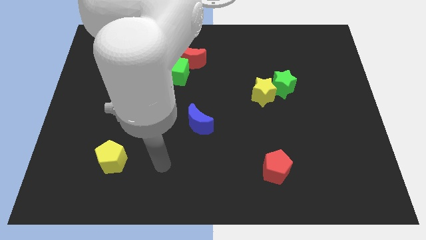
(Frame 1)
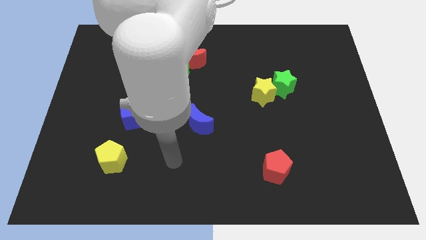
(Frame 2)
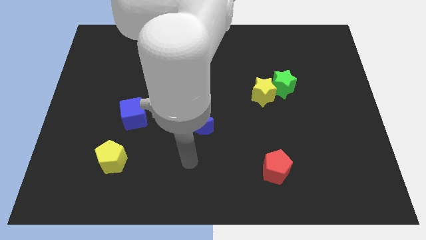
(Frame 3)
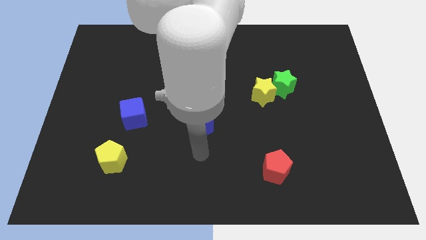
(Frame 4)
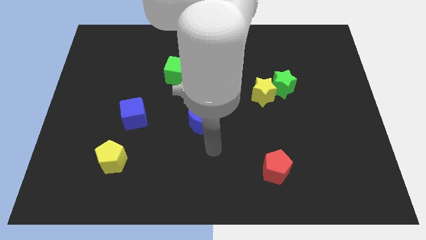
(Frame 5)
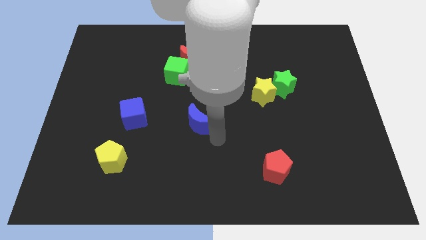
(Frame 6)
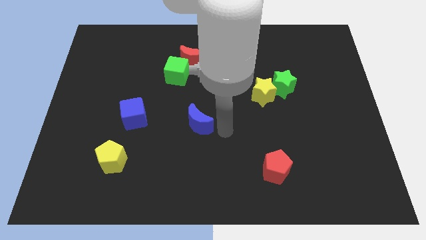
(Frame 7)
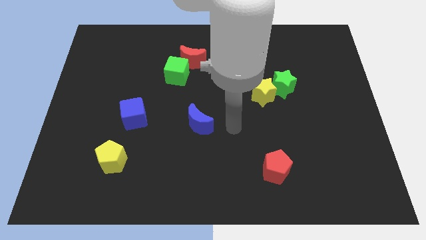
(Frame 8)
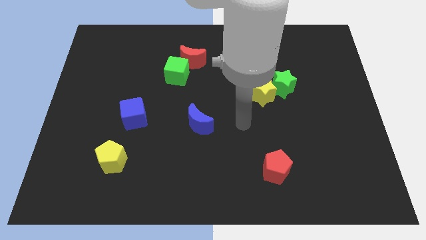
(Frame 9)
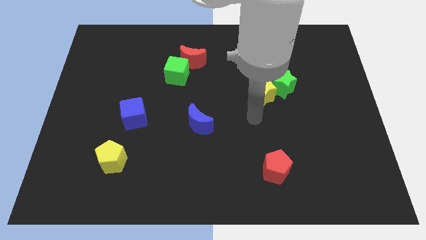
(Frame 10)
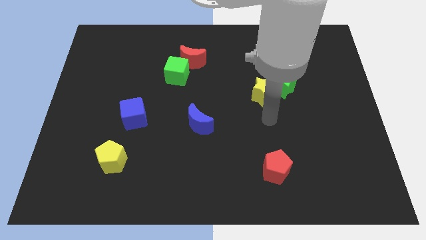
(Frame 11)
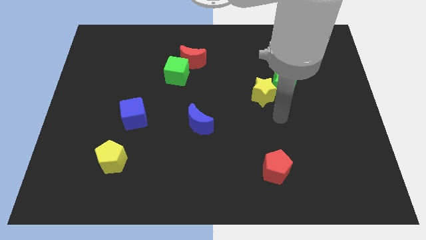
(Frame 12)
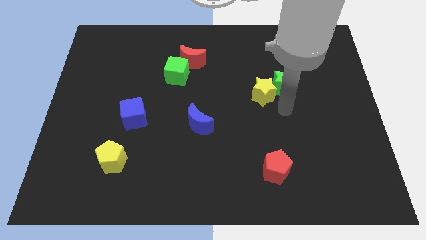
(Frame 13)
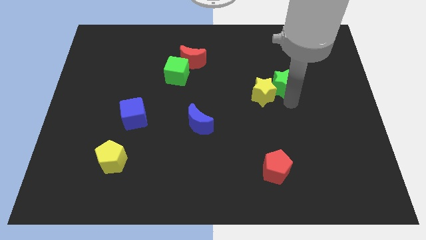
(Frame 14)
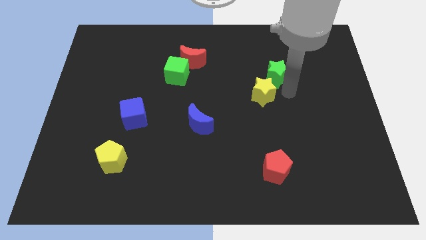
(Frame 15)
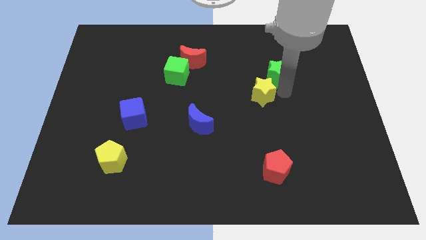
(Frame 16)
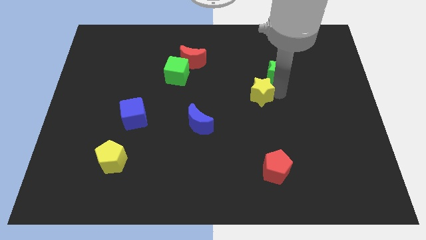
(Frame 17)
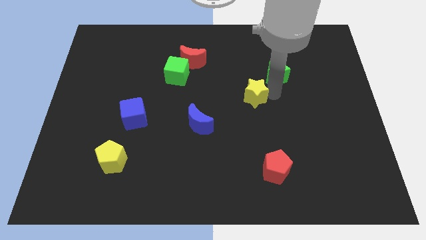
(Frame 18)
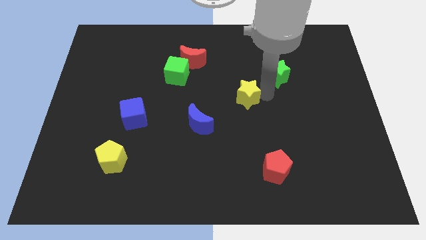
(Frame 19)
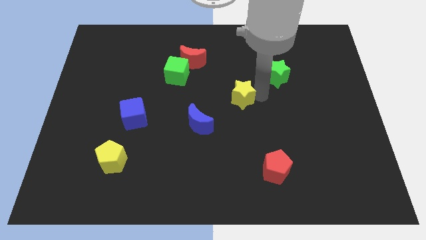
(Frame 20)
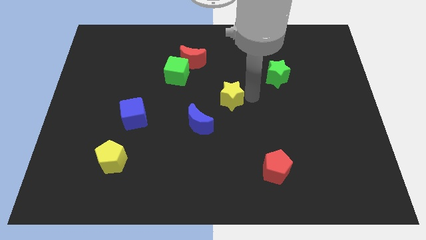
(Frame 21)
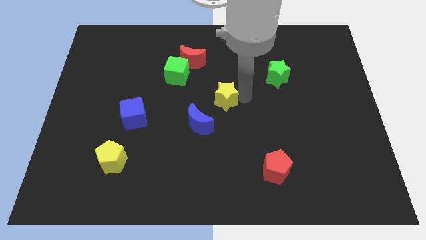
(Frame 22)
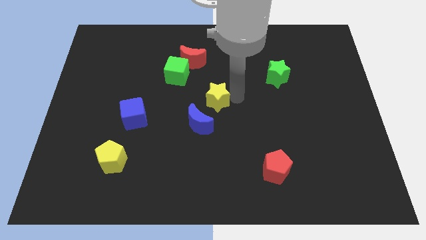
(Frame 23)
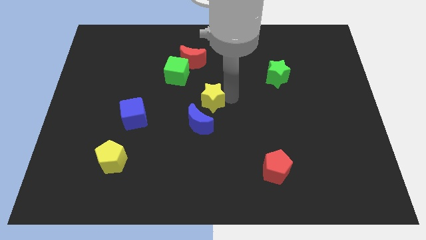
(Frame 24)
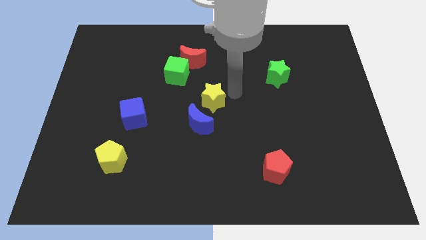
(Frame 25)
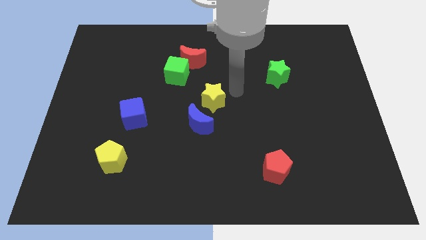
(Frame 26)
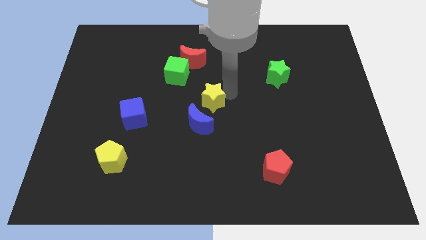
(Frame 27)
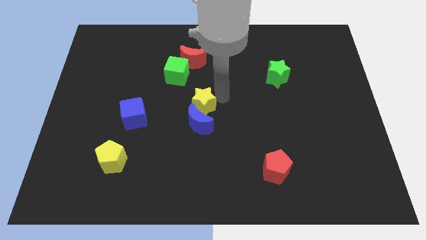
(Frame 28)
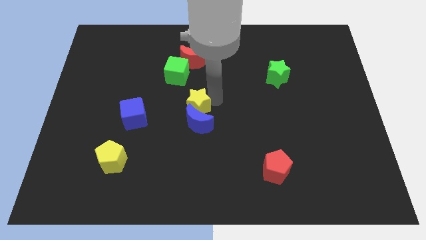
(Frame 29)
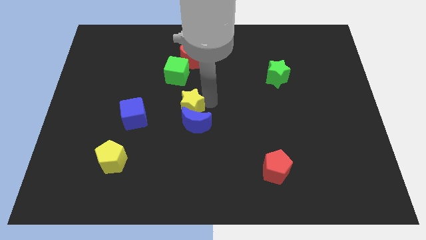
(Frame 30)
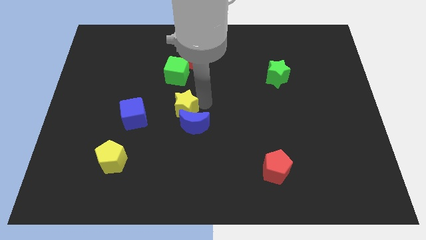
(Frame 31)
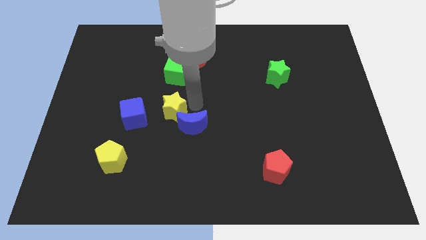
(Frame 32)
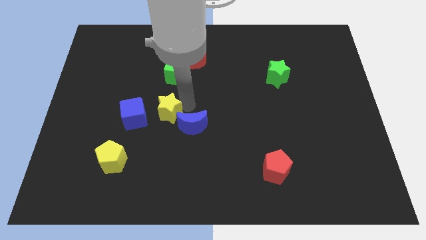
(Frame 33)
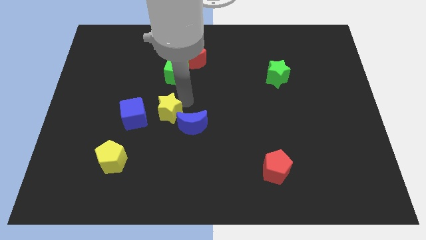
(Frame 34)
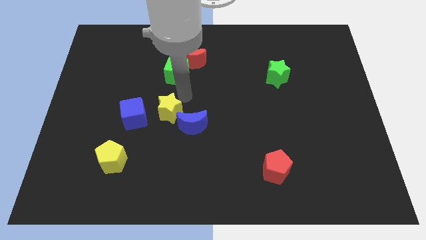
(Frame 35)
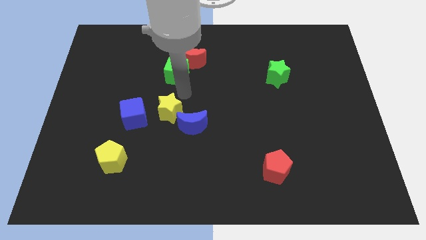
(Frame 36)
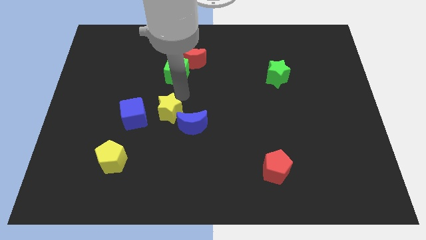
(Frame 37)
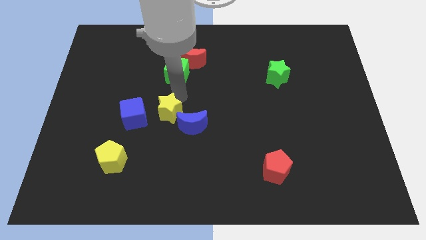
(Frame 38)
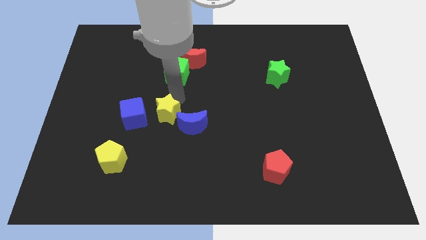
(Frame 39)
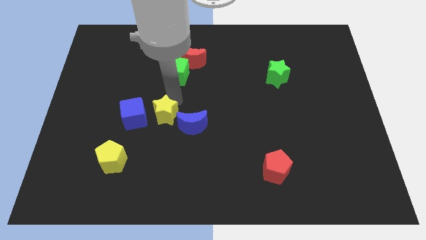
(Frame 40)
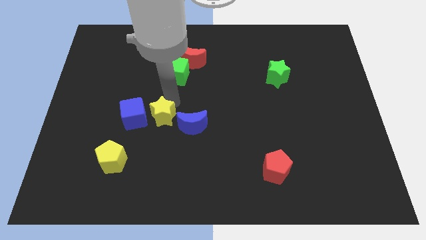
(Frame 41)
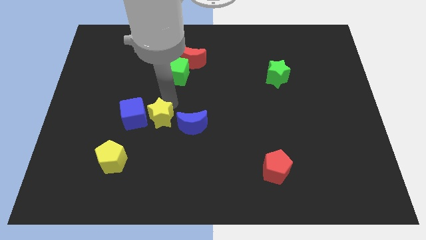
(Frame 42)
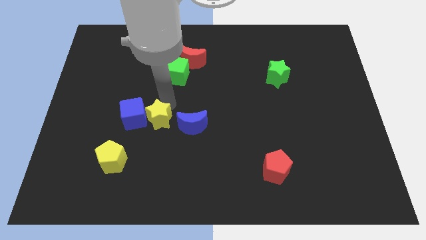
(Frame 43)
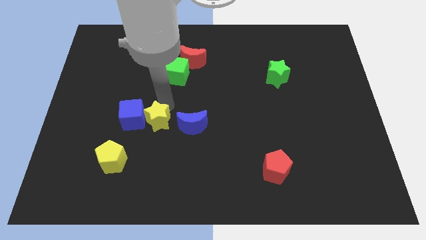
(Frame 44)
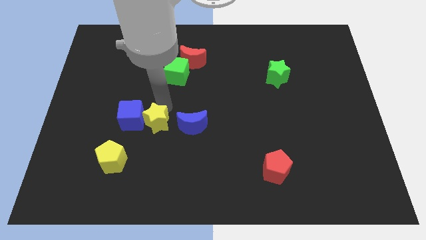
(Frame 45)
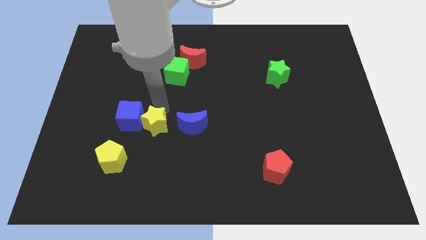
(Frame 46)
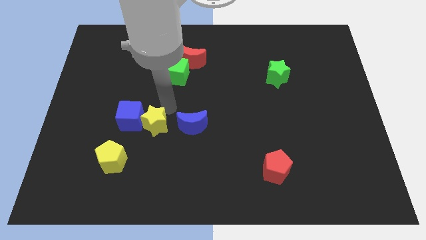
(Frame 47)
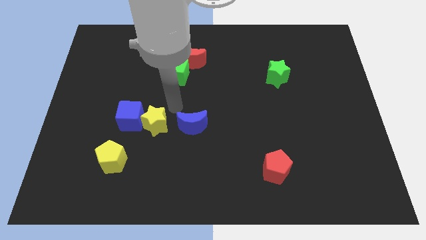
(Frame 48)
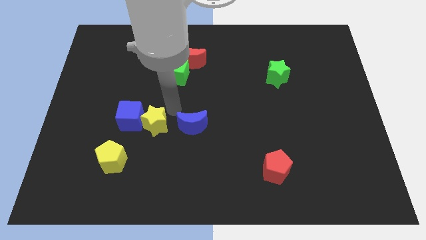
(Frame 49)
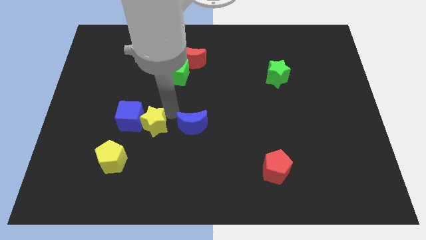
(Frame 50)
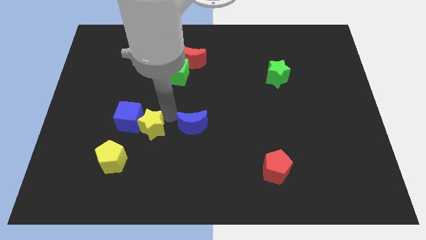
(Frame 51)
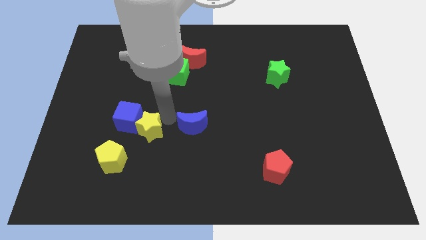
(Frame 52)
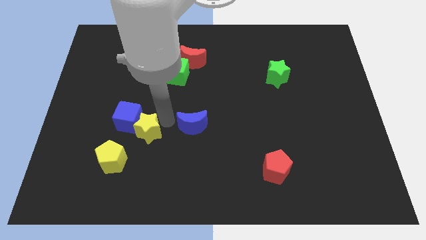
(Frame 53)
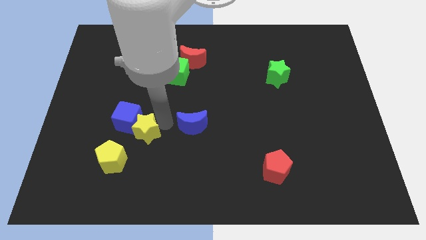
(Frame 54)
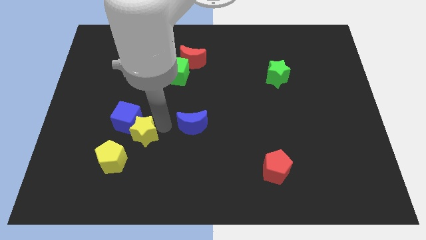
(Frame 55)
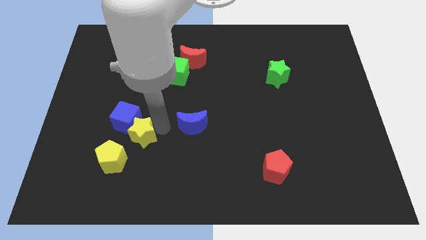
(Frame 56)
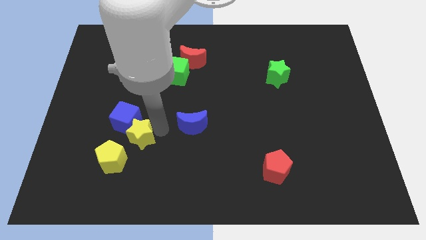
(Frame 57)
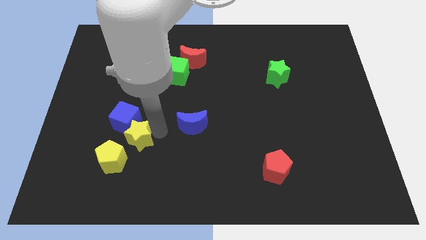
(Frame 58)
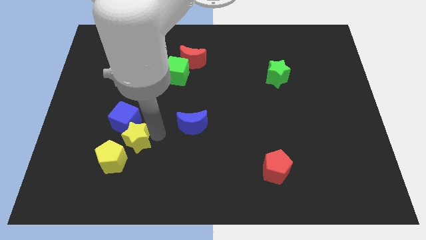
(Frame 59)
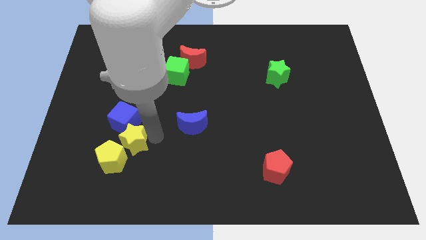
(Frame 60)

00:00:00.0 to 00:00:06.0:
push the yellow star next to the yellow pentagon

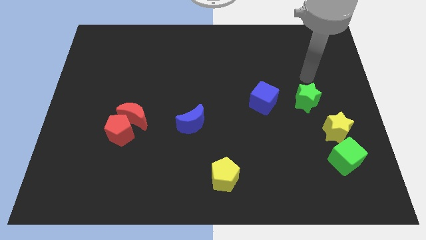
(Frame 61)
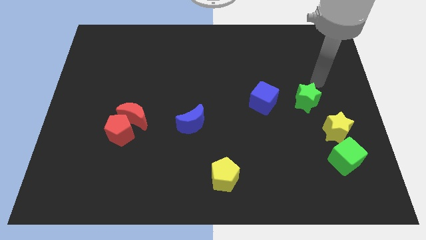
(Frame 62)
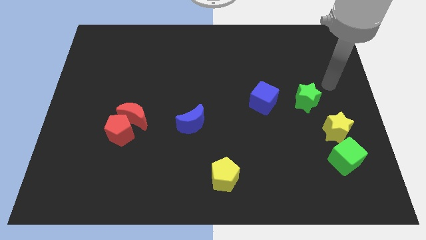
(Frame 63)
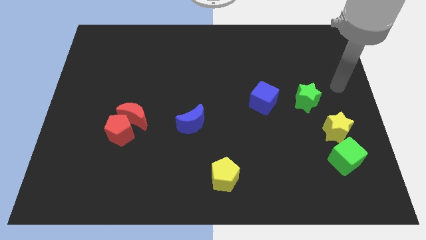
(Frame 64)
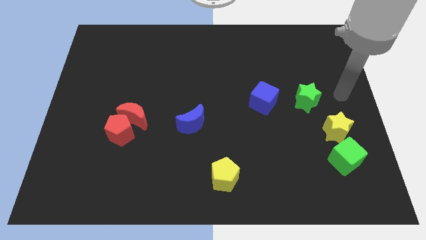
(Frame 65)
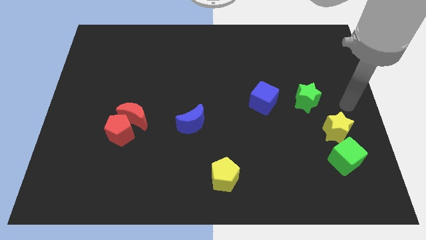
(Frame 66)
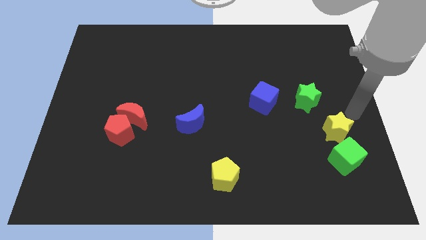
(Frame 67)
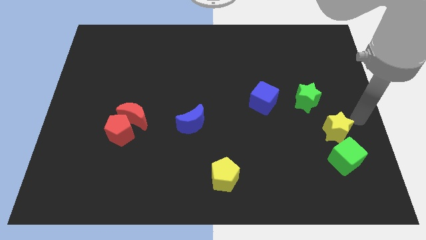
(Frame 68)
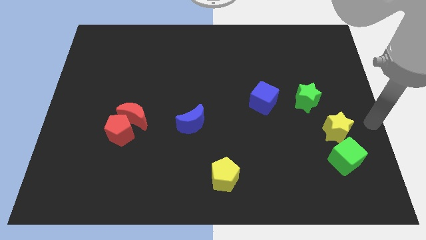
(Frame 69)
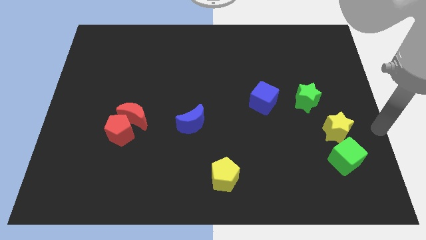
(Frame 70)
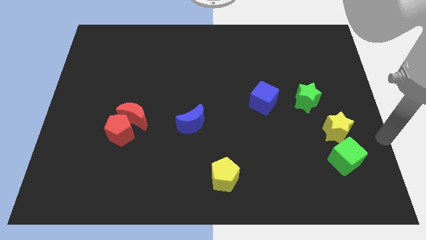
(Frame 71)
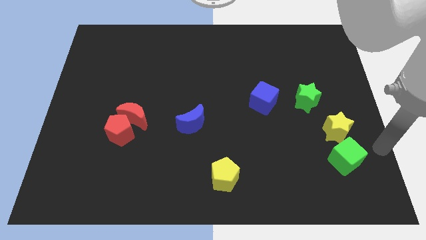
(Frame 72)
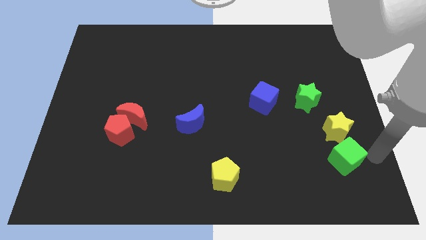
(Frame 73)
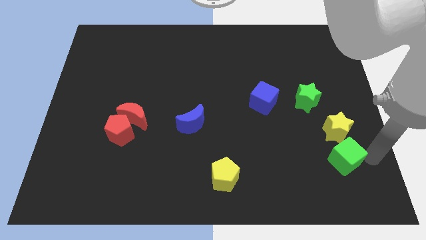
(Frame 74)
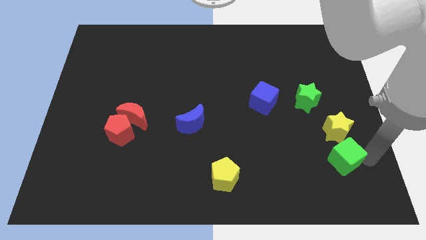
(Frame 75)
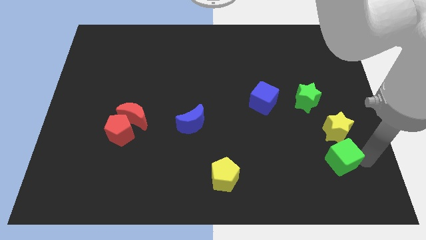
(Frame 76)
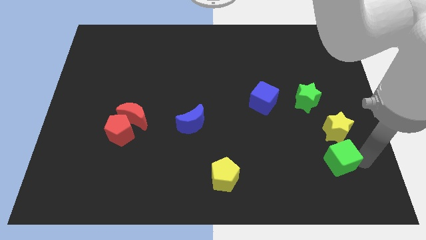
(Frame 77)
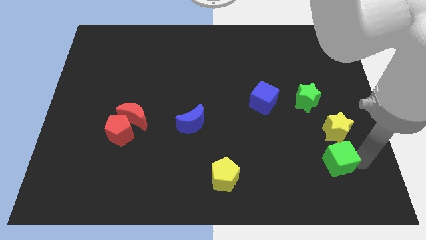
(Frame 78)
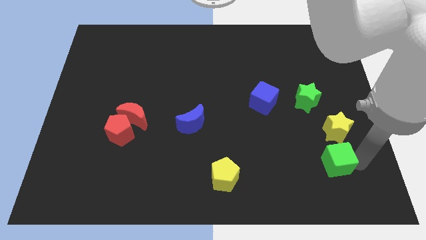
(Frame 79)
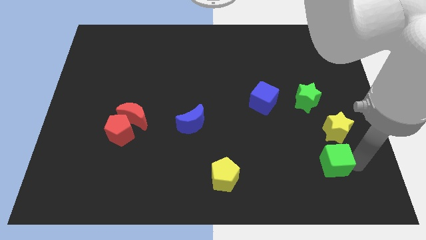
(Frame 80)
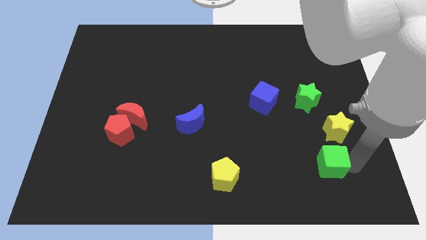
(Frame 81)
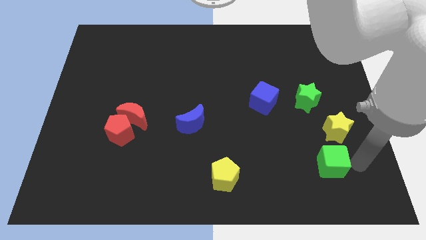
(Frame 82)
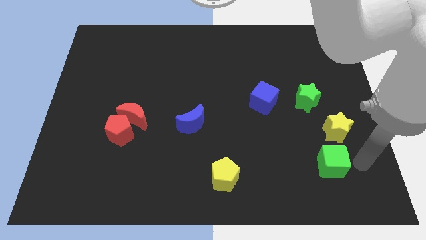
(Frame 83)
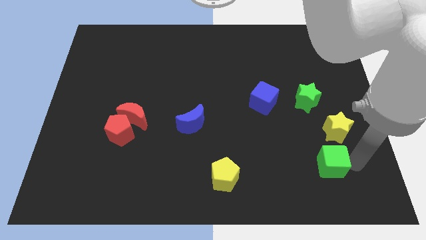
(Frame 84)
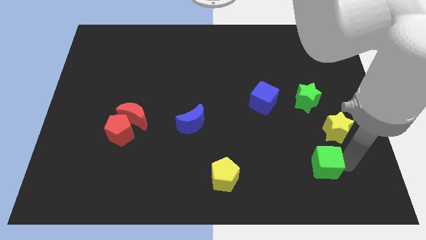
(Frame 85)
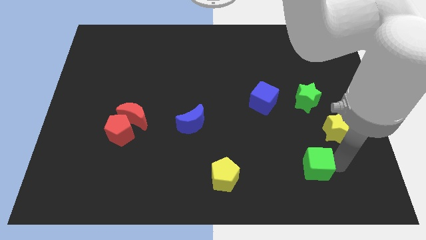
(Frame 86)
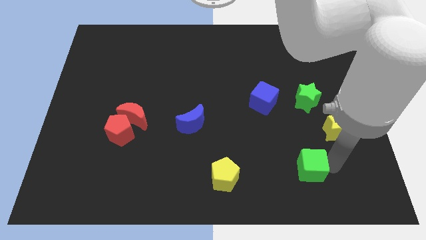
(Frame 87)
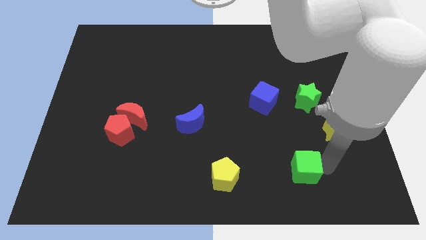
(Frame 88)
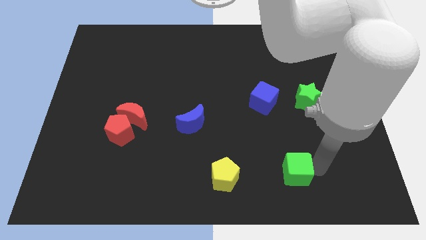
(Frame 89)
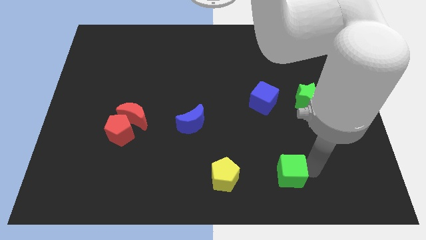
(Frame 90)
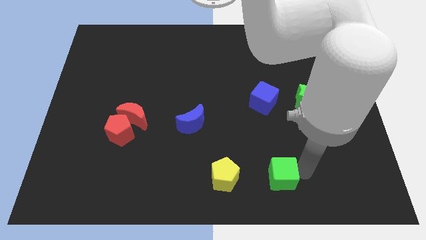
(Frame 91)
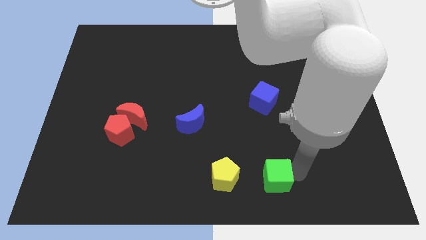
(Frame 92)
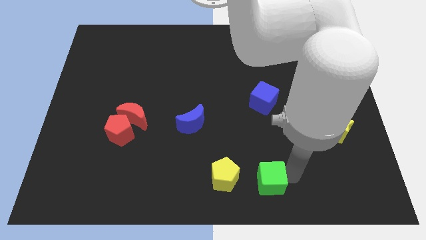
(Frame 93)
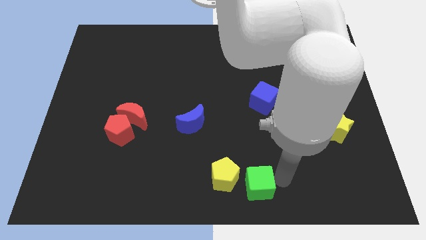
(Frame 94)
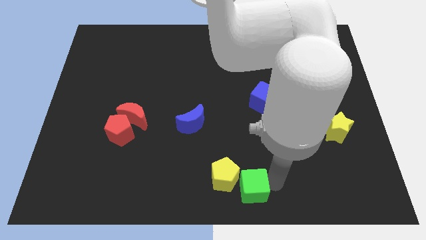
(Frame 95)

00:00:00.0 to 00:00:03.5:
move the green cube to the yellow pentagon
